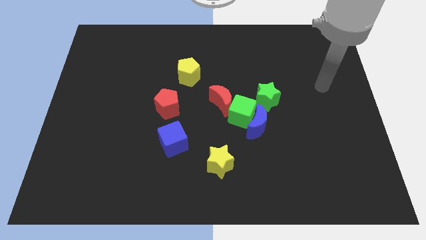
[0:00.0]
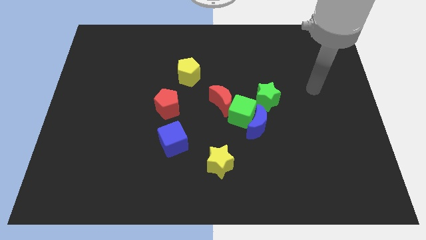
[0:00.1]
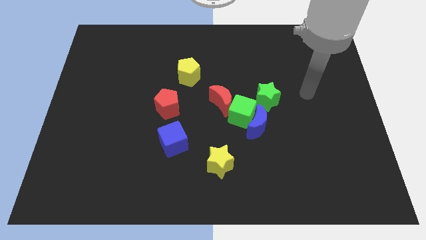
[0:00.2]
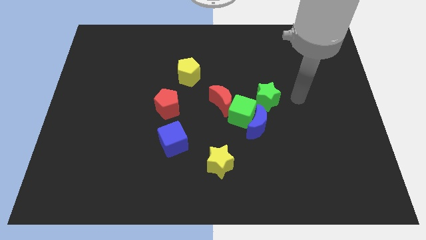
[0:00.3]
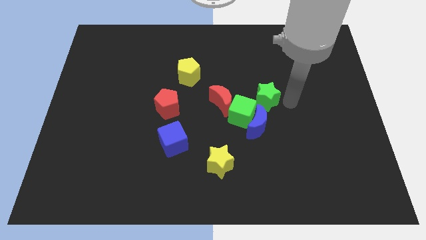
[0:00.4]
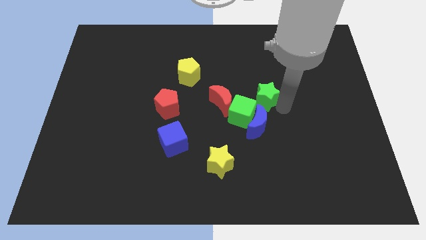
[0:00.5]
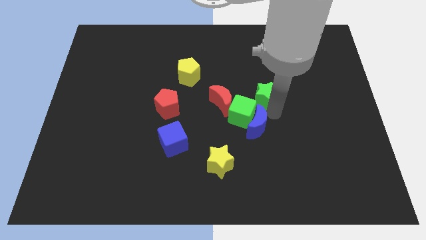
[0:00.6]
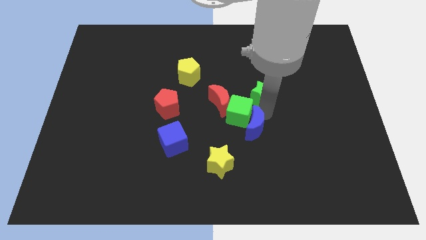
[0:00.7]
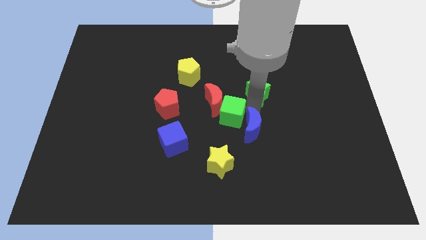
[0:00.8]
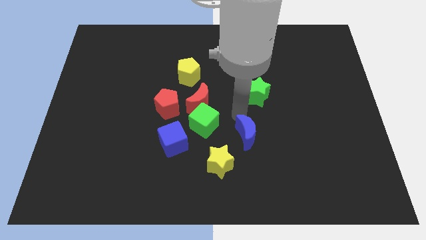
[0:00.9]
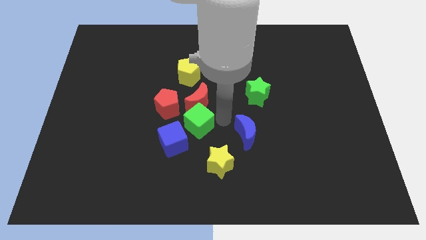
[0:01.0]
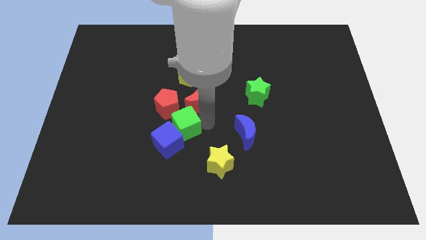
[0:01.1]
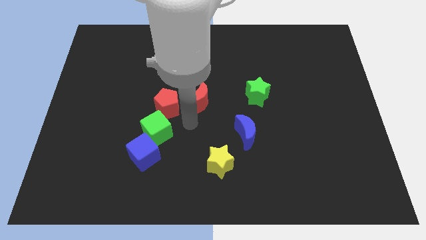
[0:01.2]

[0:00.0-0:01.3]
move the red moon away from the green cube

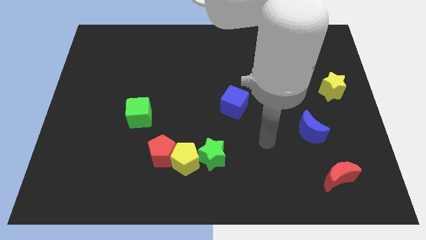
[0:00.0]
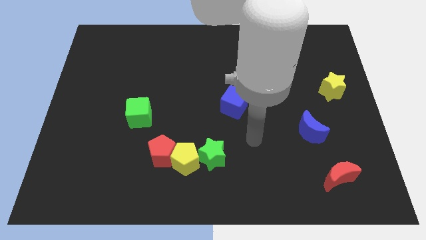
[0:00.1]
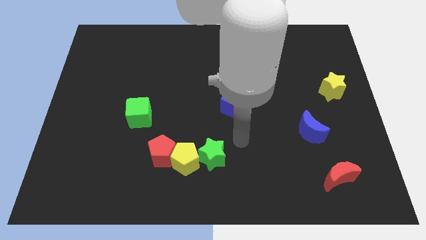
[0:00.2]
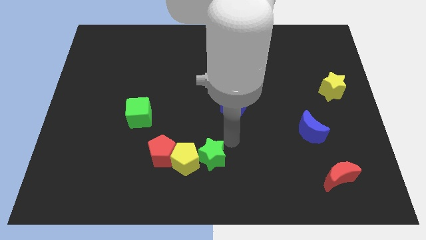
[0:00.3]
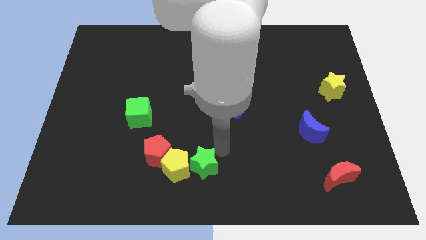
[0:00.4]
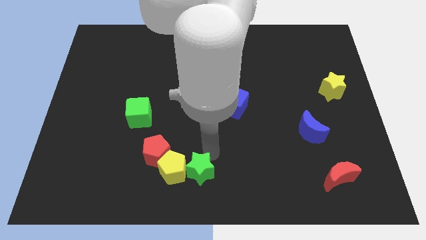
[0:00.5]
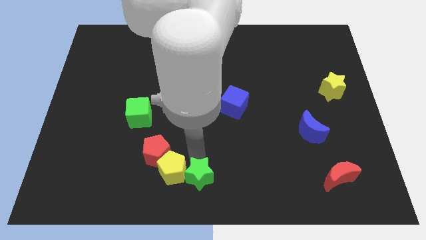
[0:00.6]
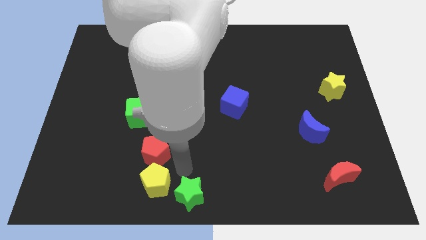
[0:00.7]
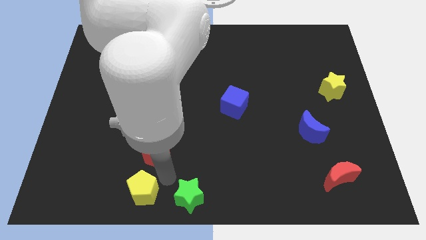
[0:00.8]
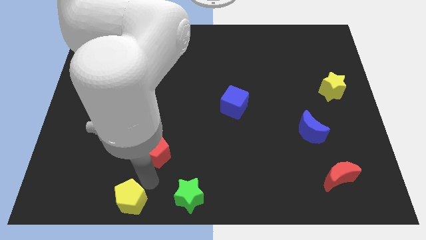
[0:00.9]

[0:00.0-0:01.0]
separate the red pentagon from the yellow pentagon

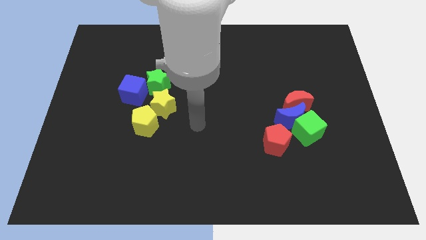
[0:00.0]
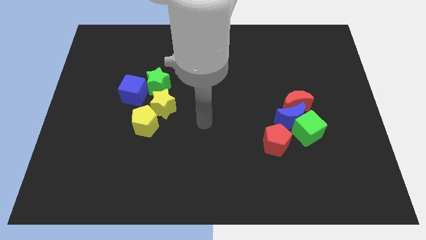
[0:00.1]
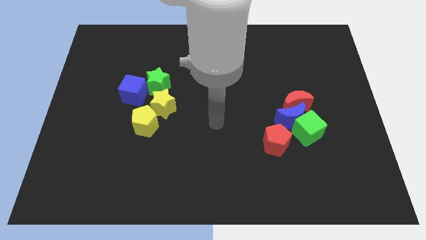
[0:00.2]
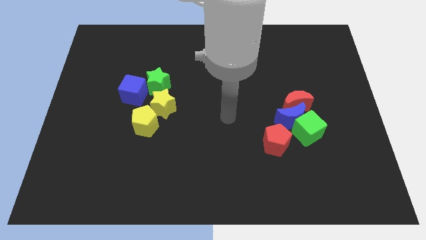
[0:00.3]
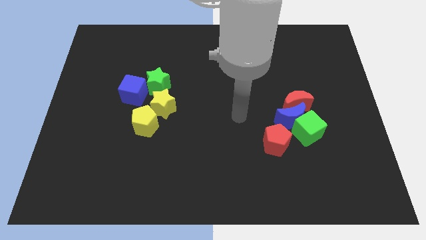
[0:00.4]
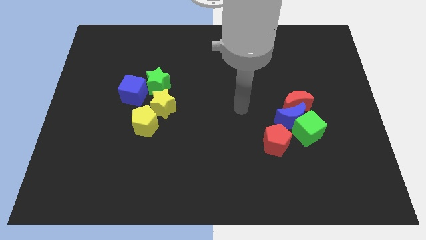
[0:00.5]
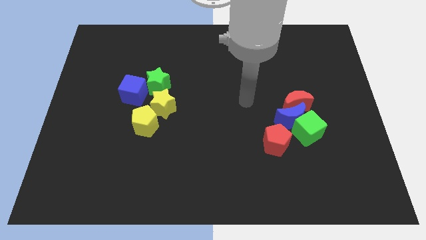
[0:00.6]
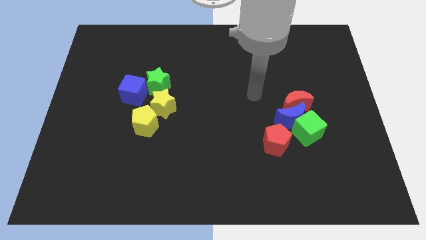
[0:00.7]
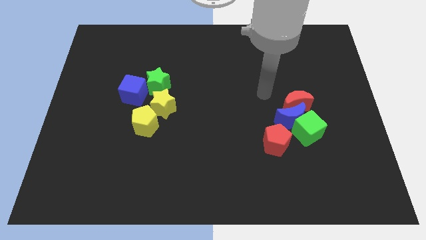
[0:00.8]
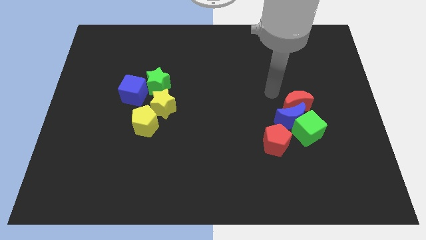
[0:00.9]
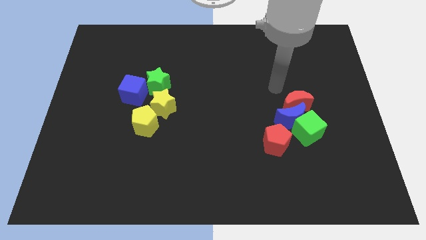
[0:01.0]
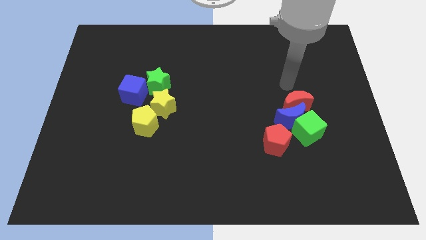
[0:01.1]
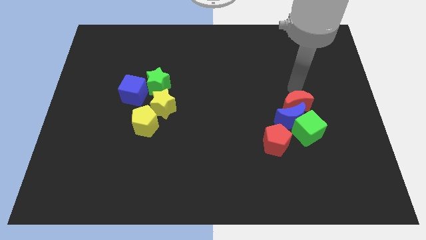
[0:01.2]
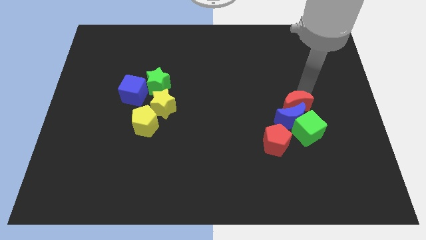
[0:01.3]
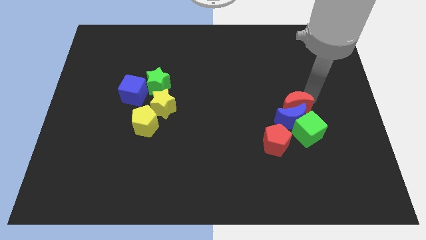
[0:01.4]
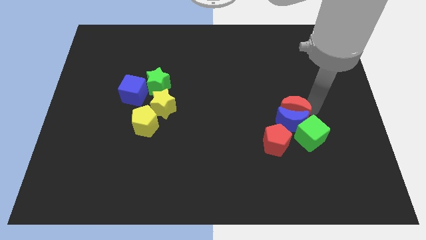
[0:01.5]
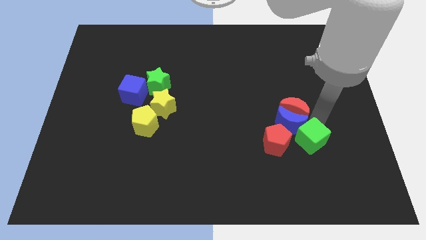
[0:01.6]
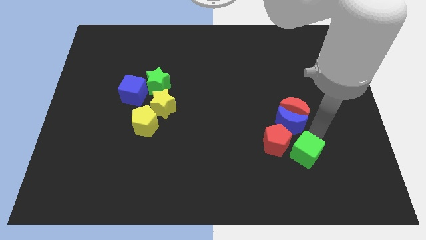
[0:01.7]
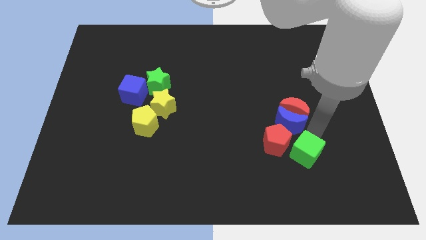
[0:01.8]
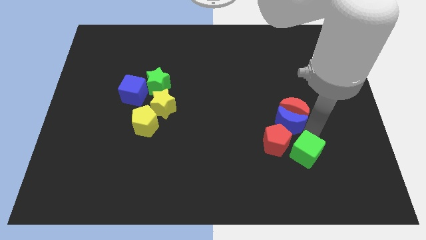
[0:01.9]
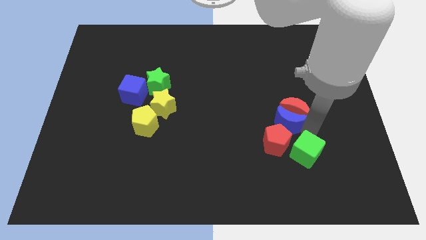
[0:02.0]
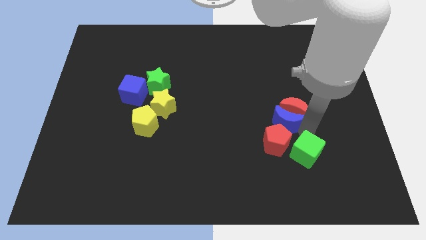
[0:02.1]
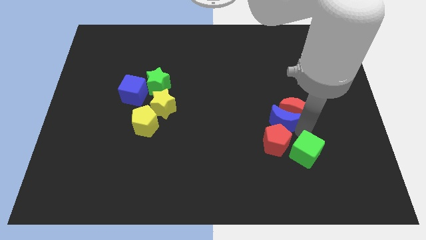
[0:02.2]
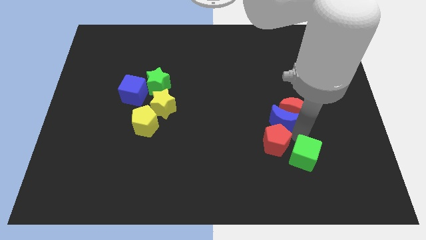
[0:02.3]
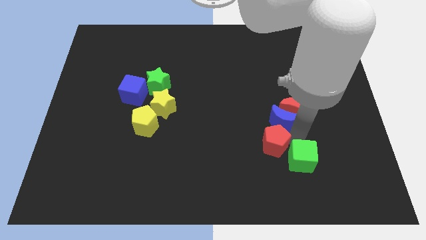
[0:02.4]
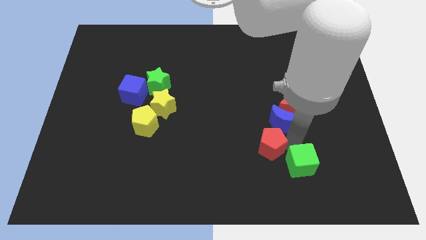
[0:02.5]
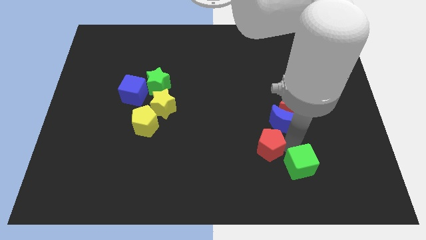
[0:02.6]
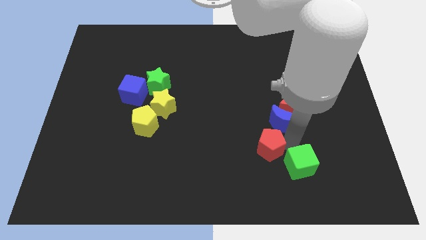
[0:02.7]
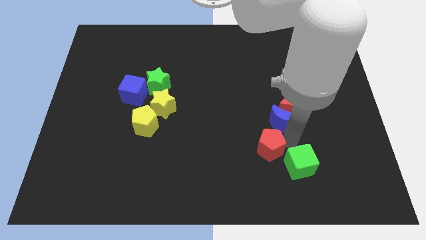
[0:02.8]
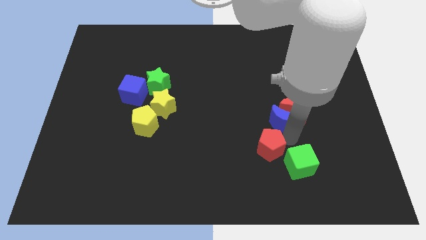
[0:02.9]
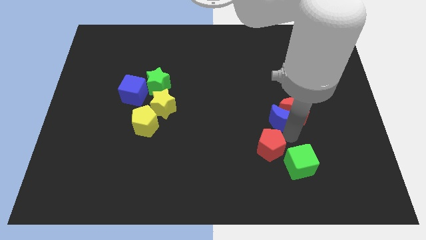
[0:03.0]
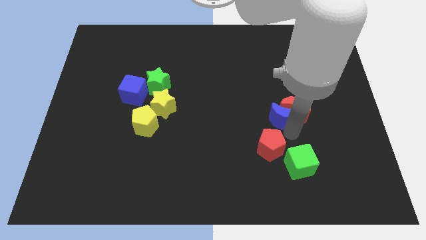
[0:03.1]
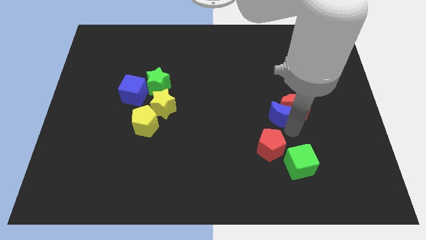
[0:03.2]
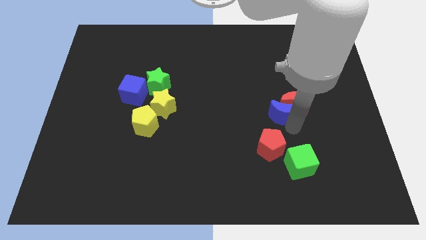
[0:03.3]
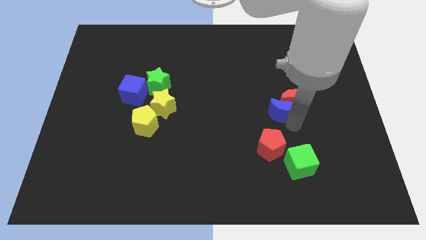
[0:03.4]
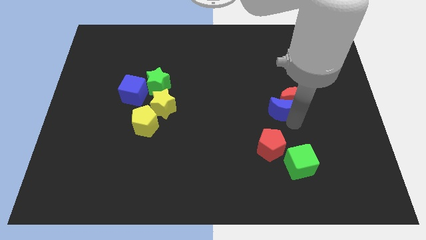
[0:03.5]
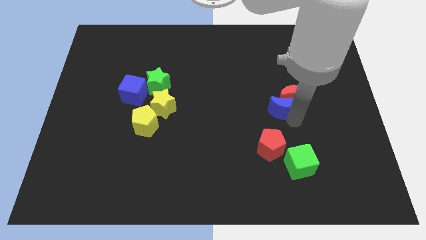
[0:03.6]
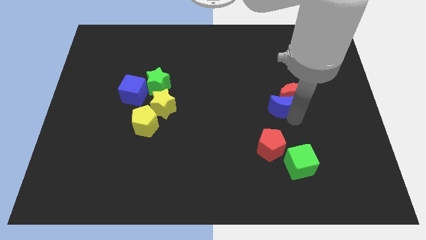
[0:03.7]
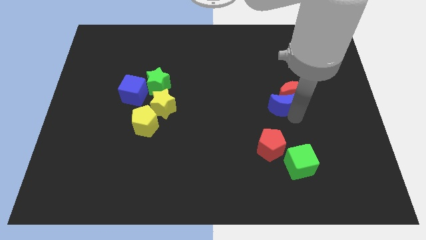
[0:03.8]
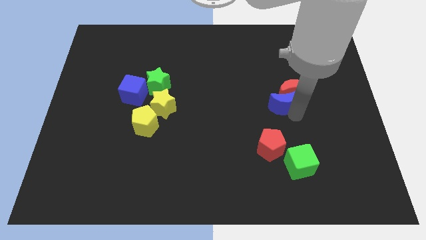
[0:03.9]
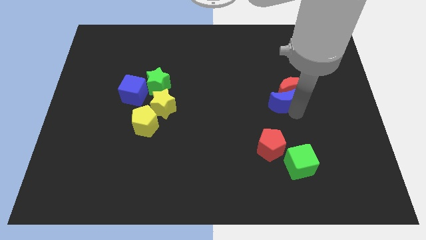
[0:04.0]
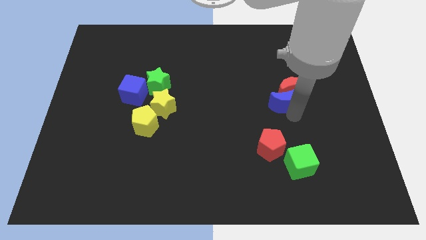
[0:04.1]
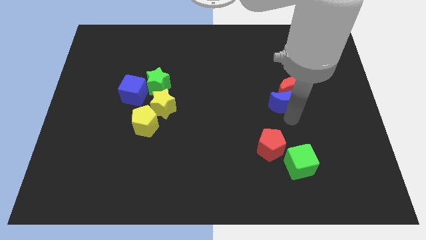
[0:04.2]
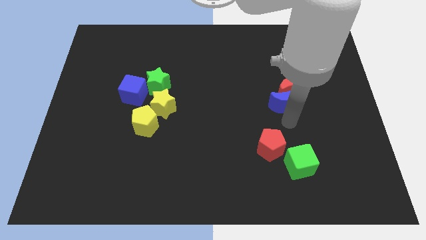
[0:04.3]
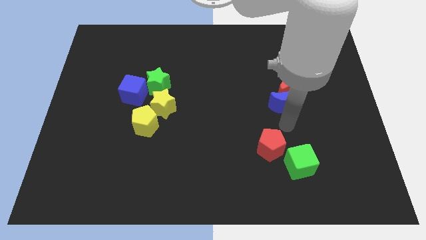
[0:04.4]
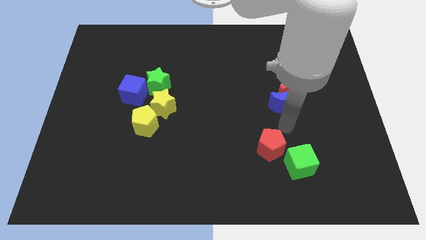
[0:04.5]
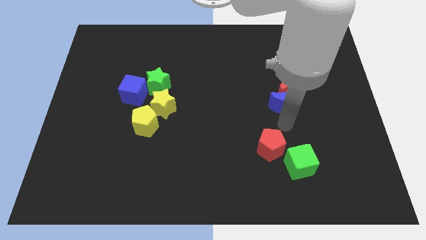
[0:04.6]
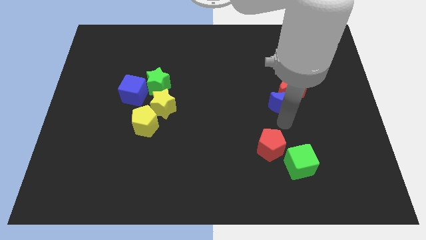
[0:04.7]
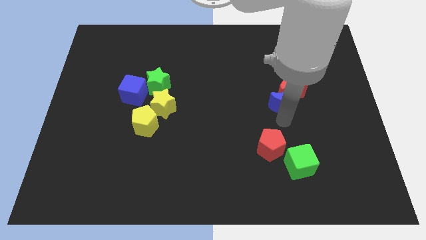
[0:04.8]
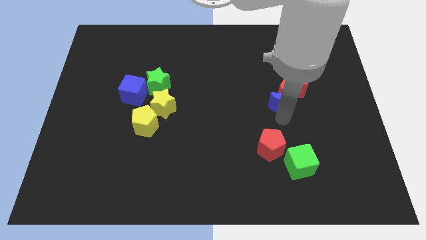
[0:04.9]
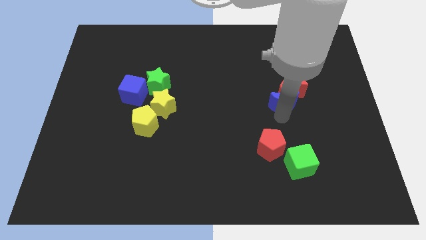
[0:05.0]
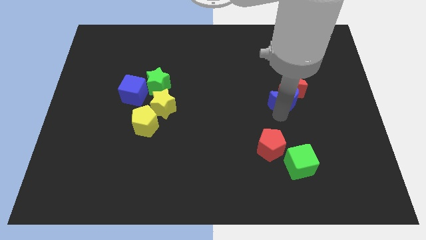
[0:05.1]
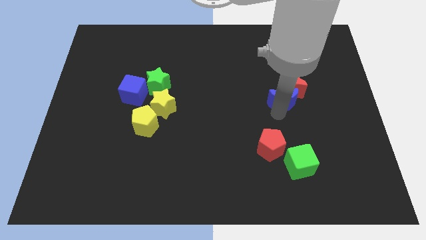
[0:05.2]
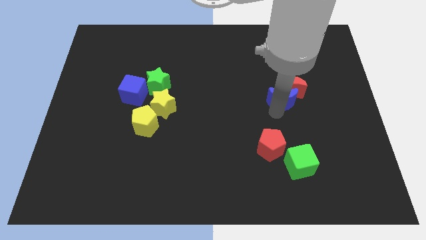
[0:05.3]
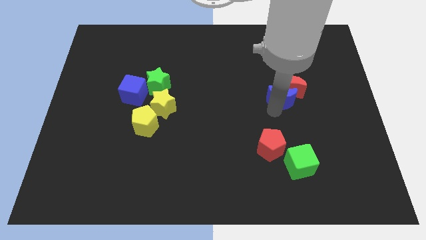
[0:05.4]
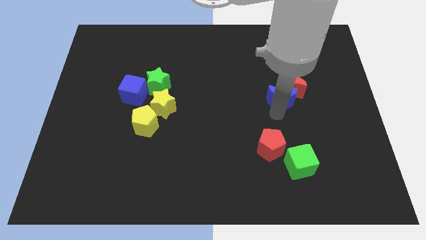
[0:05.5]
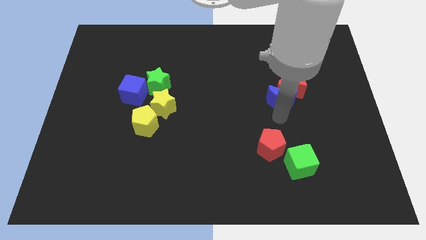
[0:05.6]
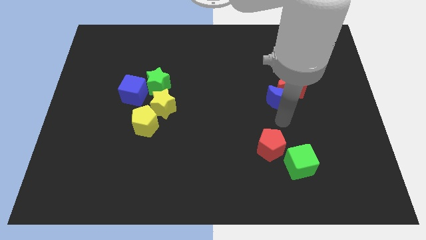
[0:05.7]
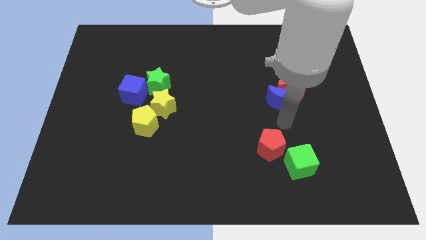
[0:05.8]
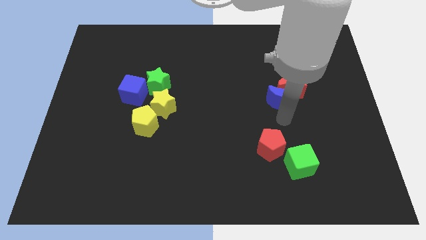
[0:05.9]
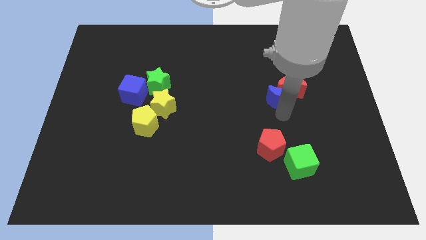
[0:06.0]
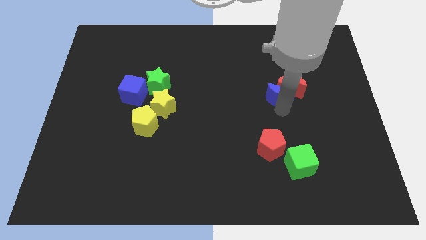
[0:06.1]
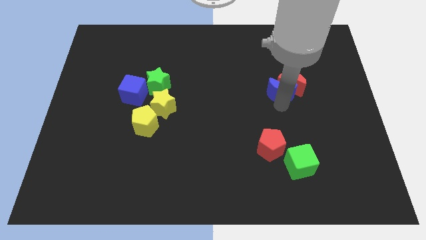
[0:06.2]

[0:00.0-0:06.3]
move the blue moon away from the red moon, green cube, and red pentagon

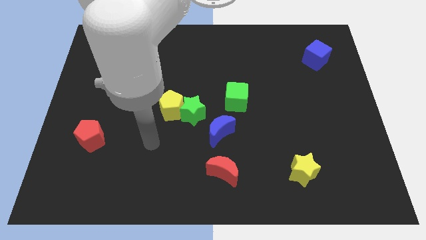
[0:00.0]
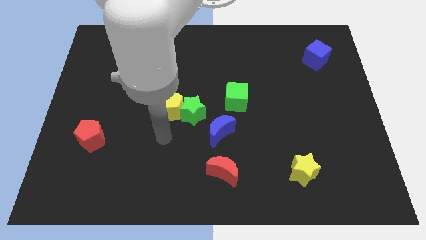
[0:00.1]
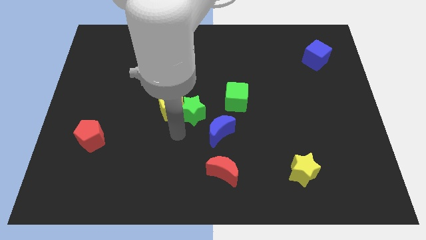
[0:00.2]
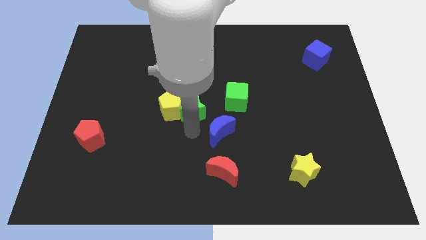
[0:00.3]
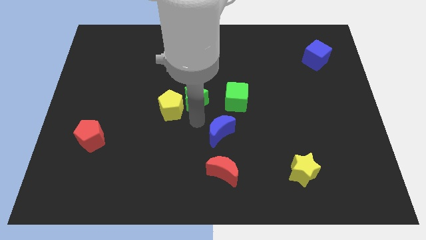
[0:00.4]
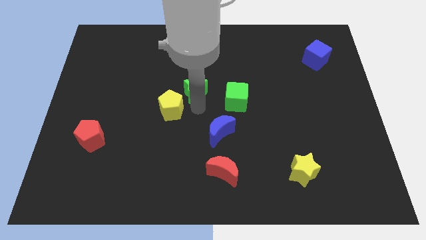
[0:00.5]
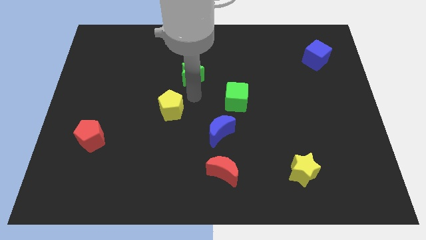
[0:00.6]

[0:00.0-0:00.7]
move the yellow pentagon away from the green star
